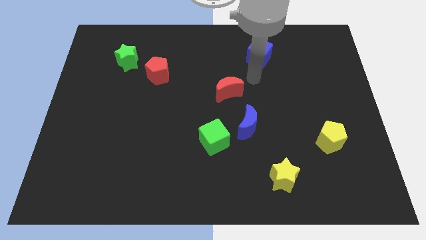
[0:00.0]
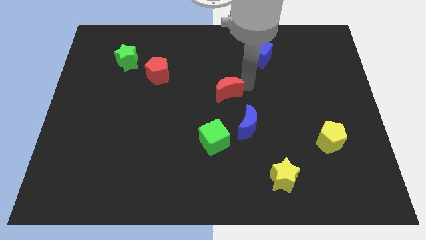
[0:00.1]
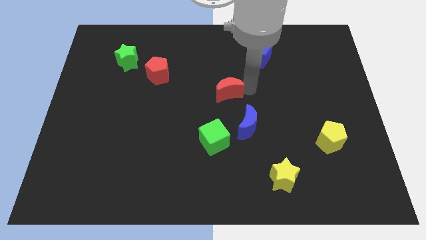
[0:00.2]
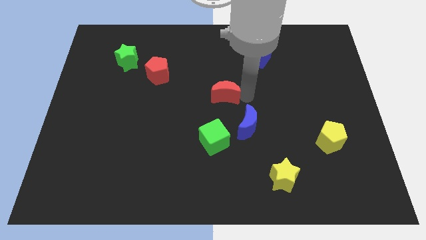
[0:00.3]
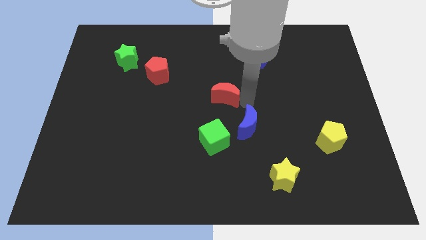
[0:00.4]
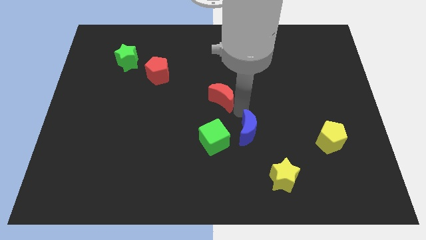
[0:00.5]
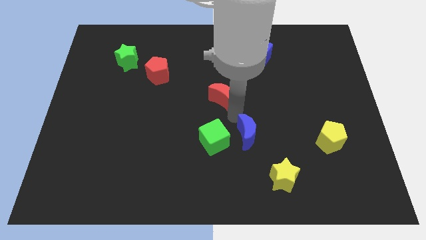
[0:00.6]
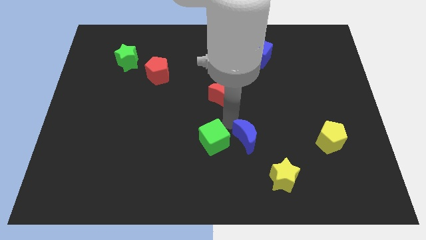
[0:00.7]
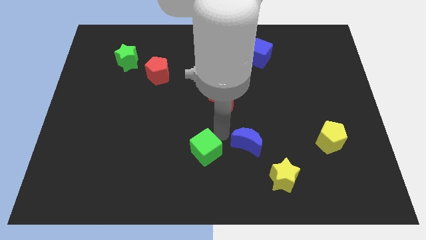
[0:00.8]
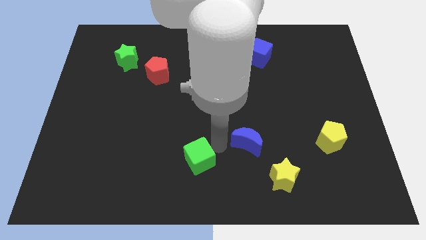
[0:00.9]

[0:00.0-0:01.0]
move the blue moon away from the green cube

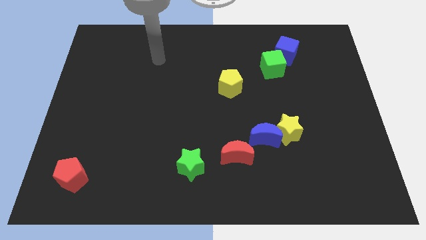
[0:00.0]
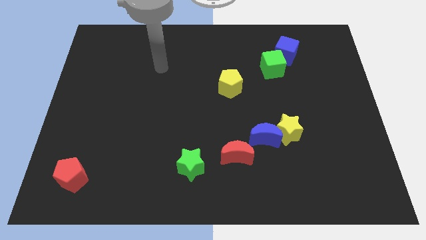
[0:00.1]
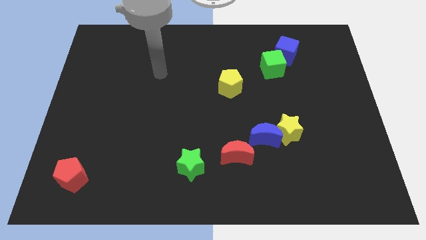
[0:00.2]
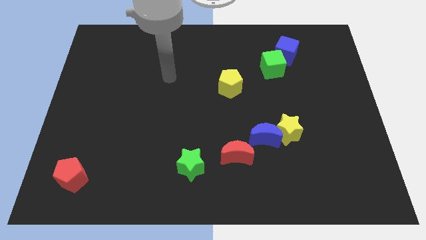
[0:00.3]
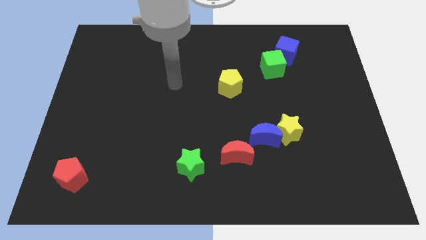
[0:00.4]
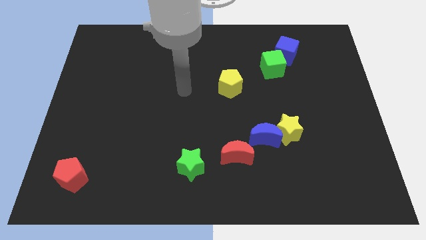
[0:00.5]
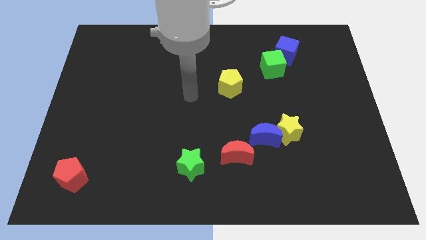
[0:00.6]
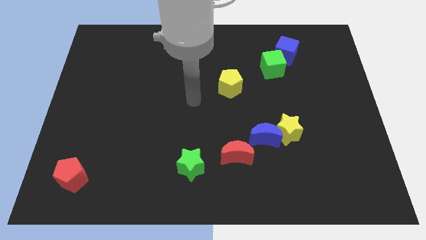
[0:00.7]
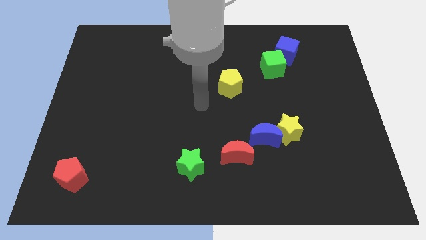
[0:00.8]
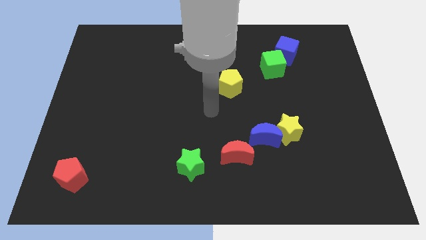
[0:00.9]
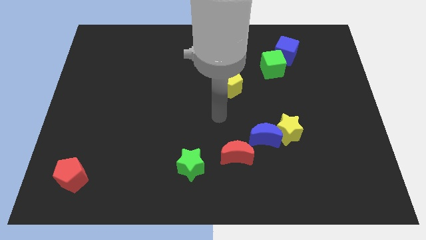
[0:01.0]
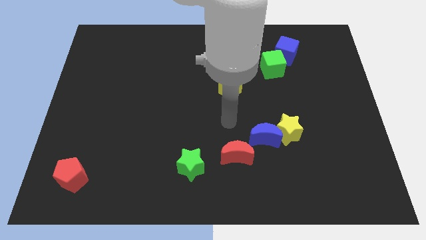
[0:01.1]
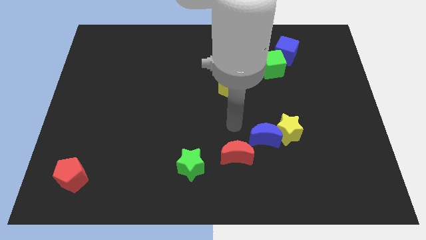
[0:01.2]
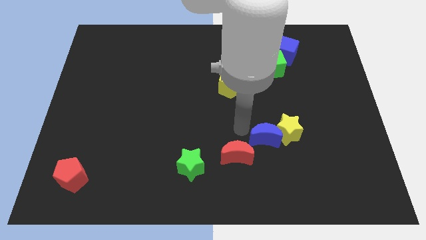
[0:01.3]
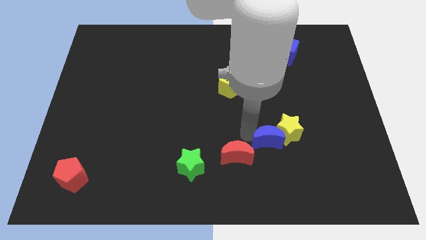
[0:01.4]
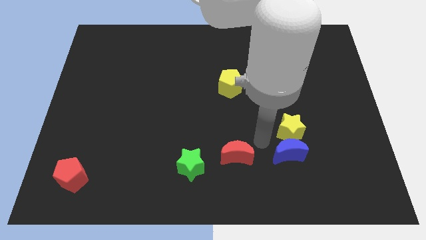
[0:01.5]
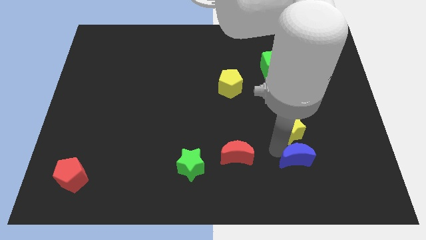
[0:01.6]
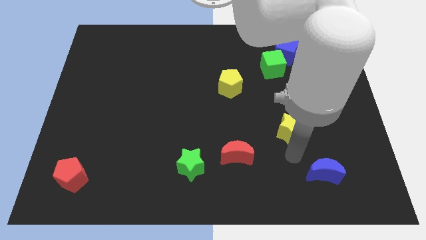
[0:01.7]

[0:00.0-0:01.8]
pull the yellow star apart from the blue moon

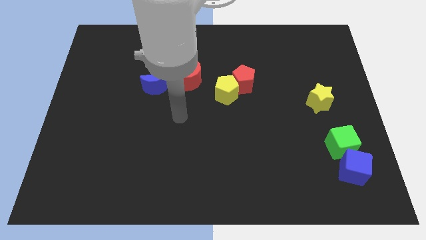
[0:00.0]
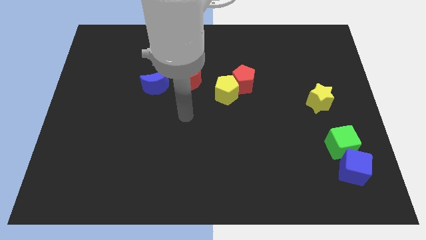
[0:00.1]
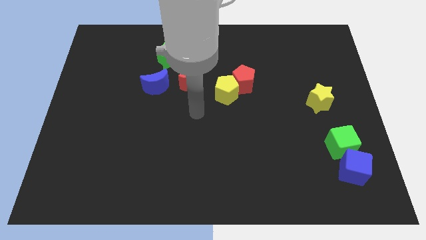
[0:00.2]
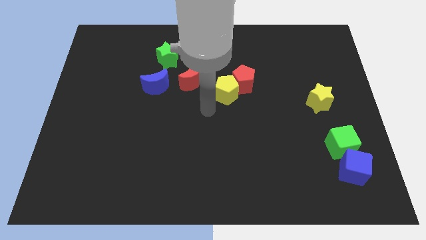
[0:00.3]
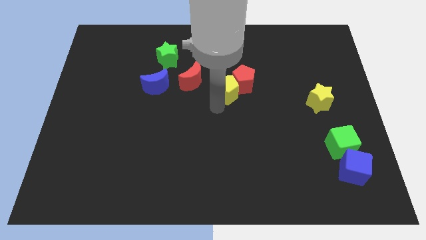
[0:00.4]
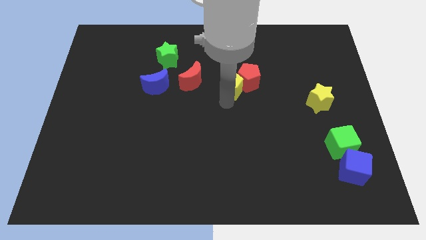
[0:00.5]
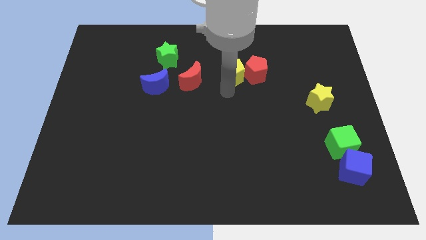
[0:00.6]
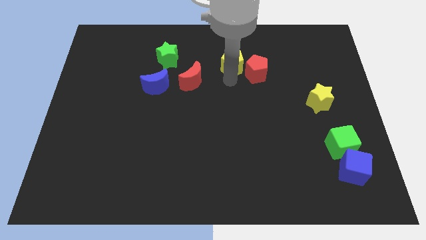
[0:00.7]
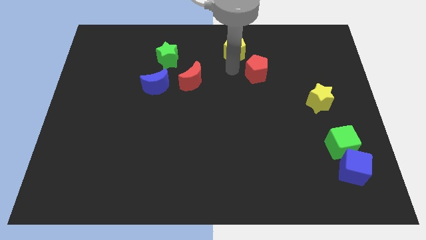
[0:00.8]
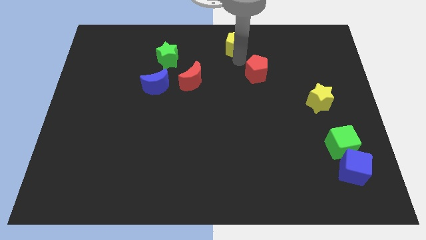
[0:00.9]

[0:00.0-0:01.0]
pull the red pentagon apart from the yellow pentagon

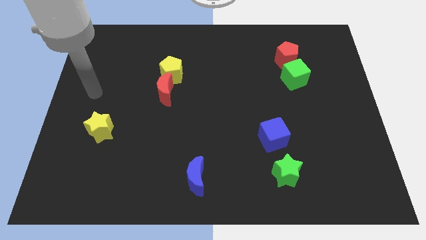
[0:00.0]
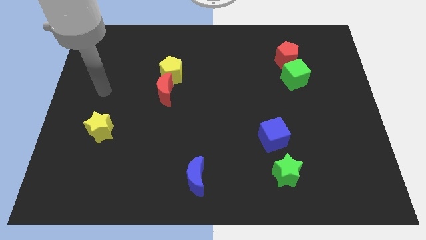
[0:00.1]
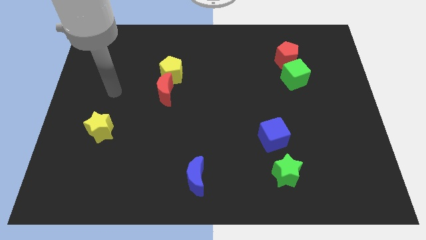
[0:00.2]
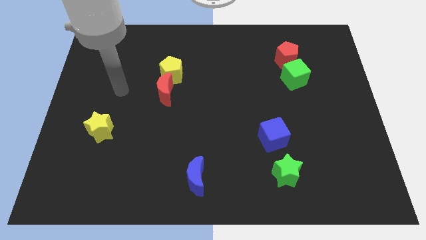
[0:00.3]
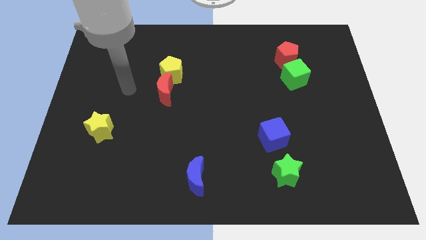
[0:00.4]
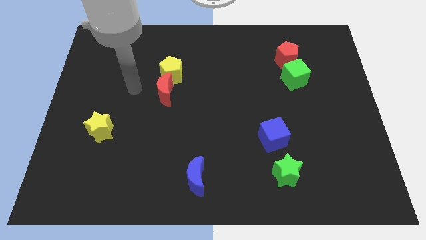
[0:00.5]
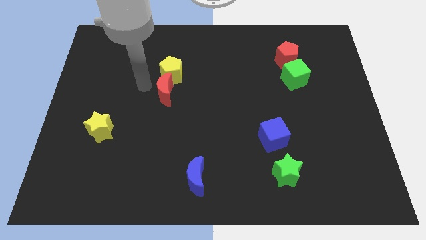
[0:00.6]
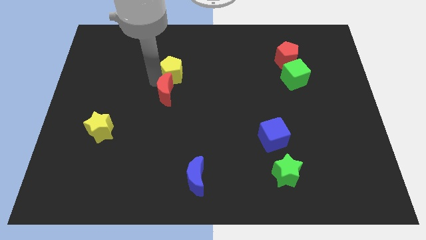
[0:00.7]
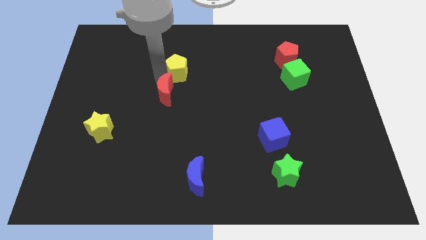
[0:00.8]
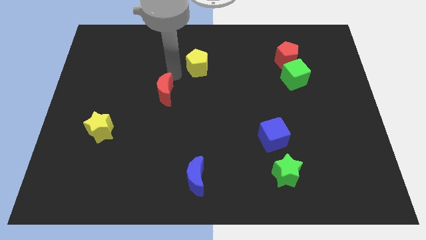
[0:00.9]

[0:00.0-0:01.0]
separate the red moon from the yellow pentagon

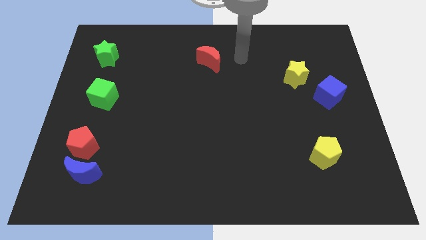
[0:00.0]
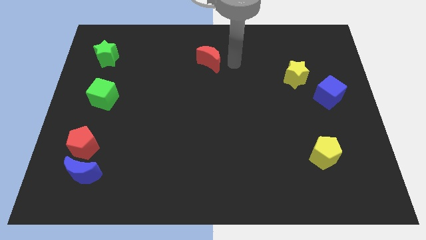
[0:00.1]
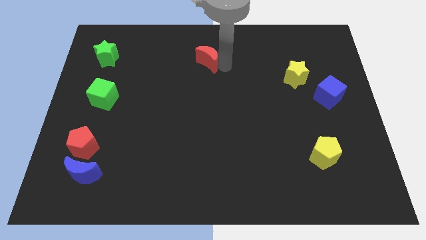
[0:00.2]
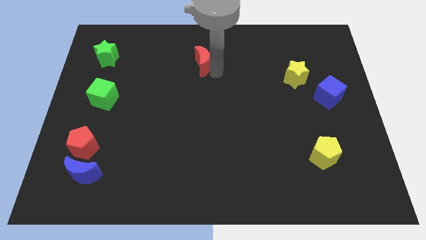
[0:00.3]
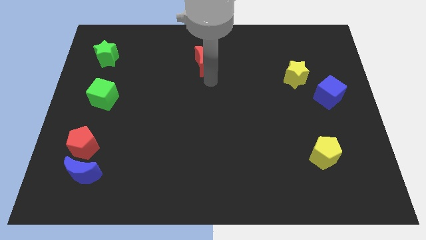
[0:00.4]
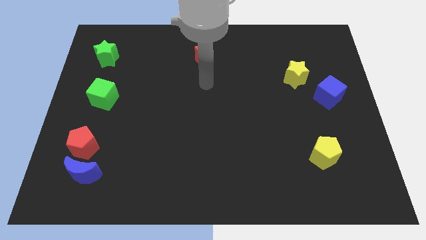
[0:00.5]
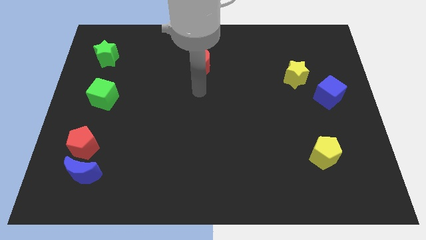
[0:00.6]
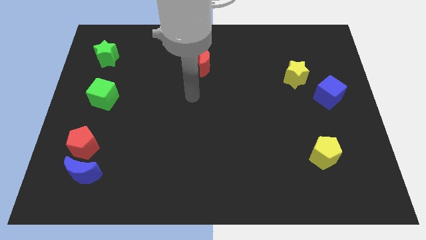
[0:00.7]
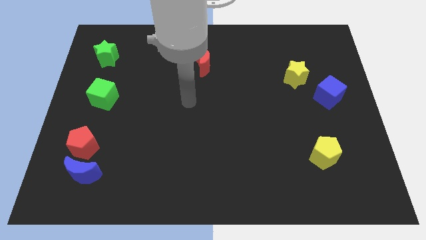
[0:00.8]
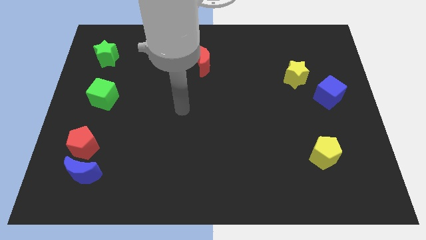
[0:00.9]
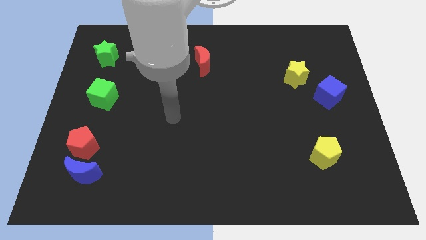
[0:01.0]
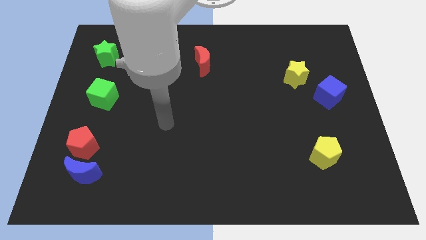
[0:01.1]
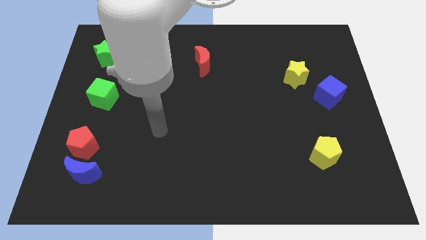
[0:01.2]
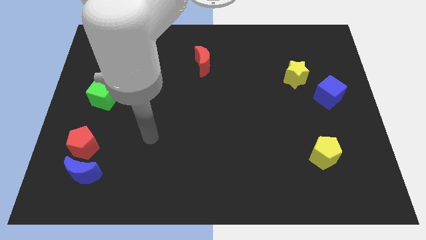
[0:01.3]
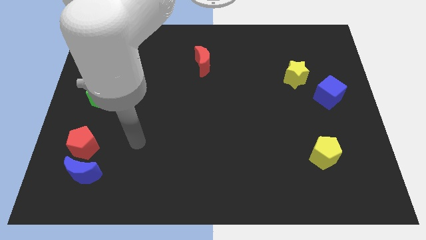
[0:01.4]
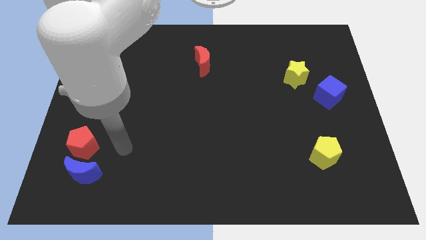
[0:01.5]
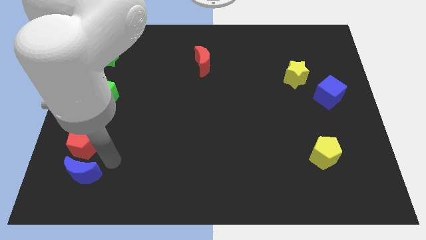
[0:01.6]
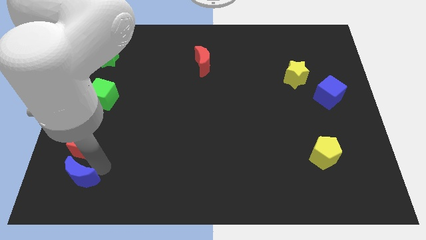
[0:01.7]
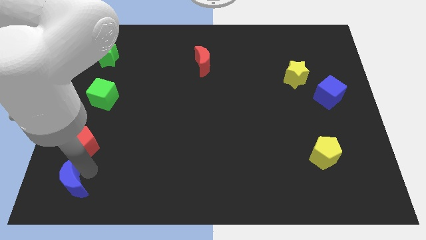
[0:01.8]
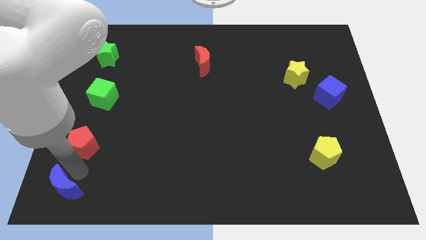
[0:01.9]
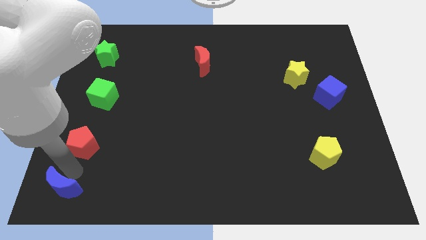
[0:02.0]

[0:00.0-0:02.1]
pull the red pentagon apart from the blue moon

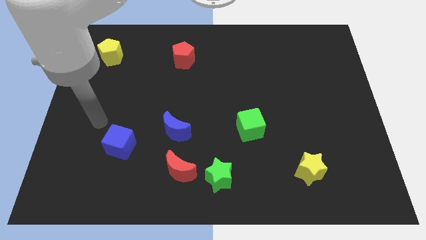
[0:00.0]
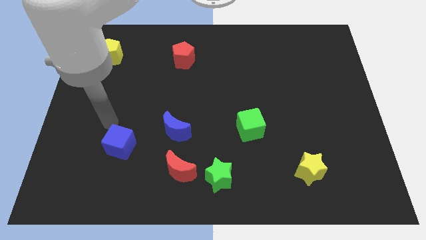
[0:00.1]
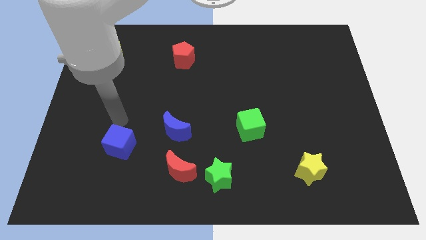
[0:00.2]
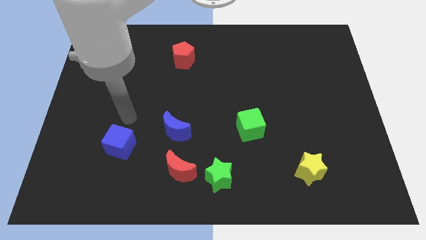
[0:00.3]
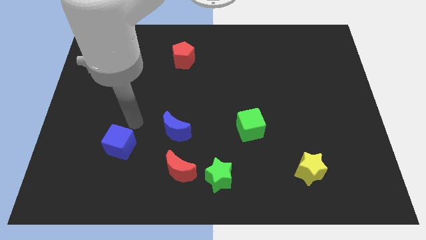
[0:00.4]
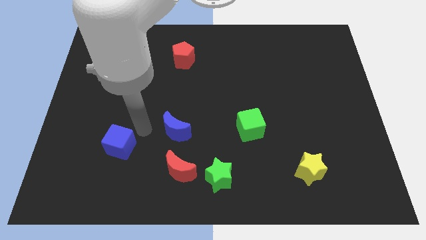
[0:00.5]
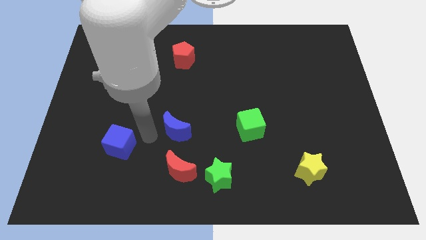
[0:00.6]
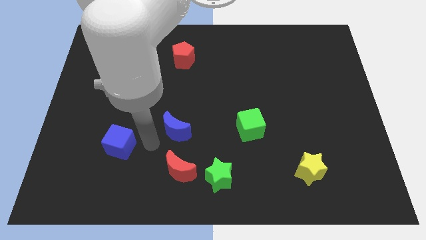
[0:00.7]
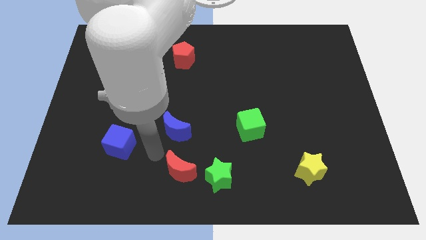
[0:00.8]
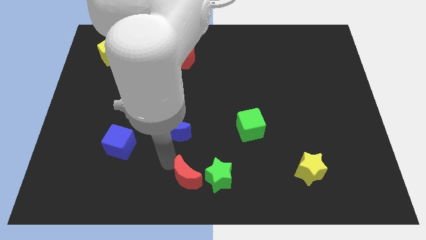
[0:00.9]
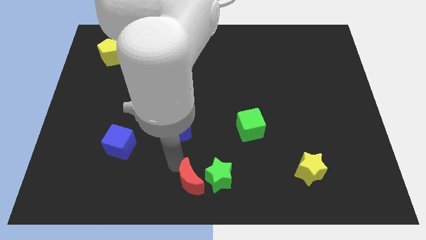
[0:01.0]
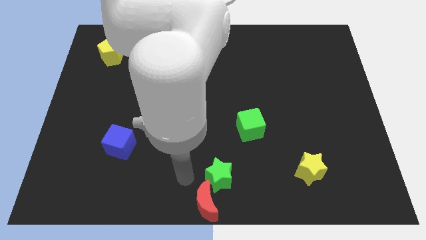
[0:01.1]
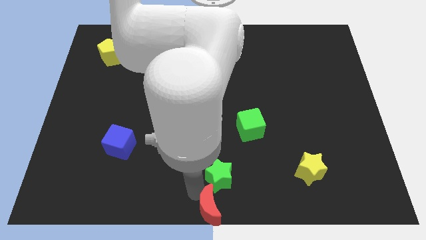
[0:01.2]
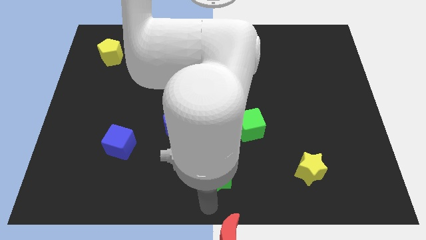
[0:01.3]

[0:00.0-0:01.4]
move the green star away from the red moon

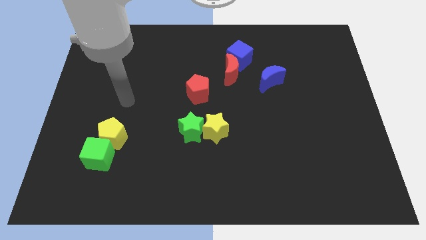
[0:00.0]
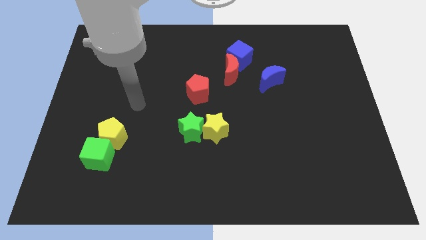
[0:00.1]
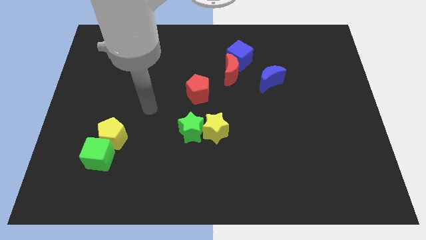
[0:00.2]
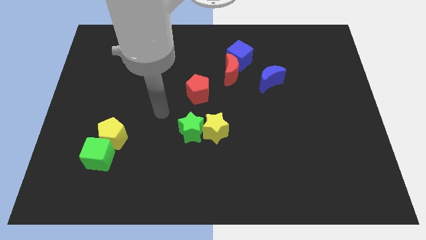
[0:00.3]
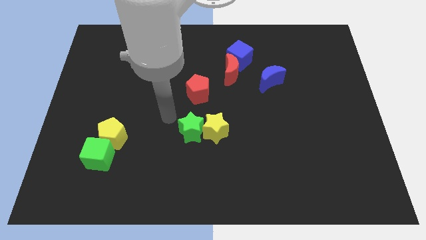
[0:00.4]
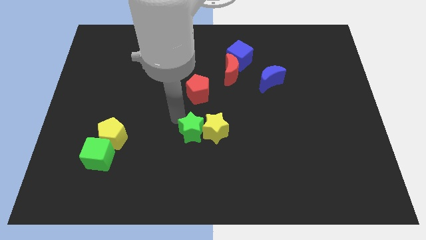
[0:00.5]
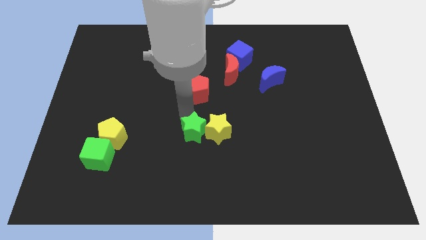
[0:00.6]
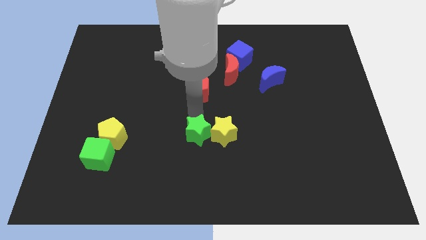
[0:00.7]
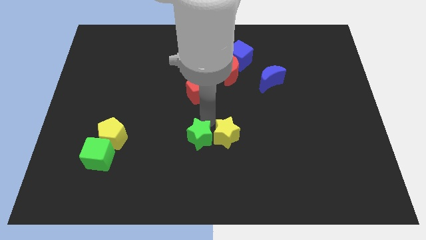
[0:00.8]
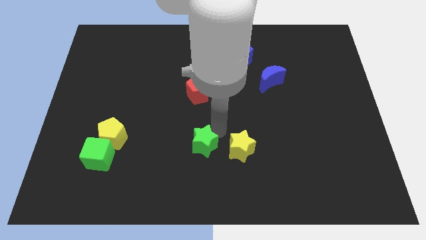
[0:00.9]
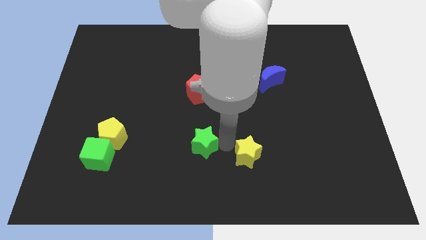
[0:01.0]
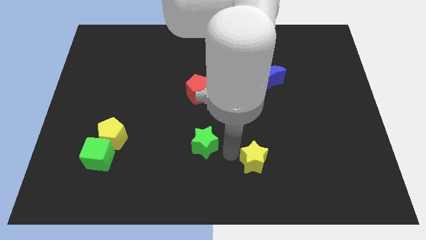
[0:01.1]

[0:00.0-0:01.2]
pull the green star apart from the yellow star
